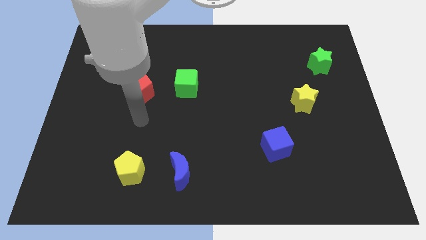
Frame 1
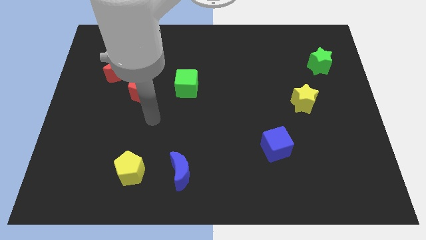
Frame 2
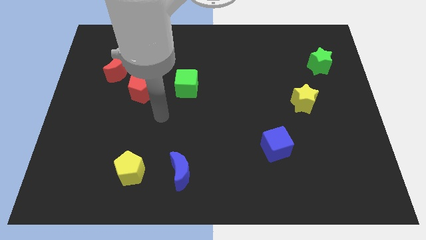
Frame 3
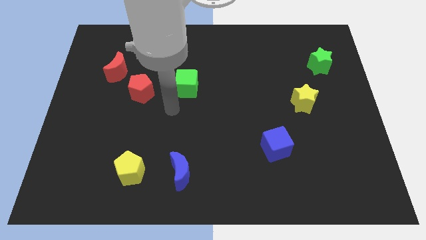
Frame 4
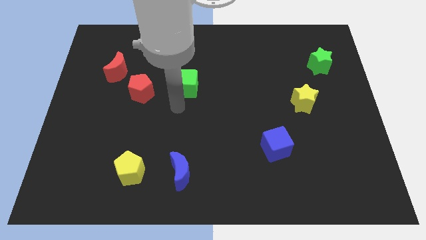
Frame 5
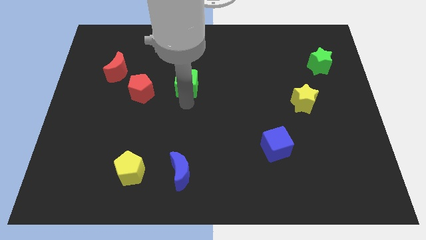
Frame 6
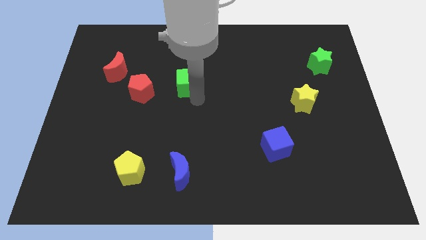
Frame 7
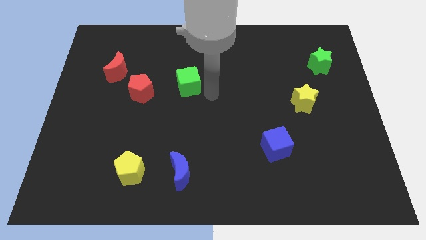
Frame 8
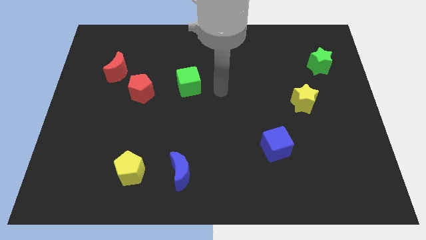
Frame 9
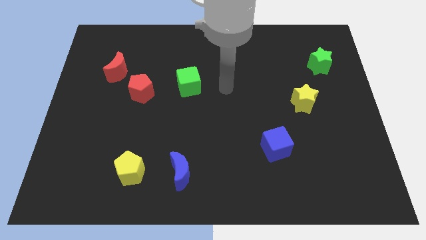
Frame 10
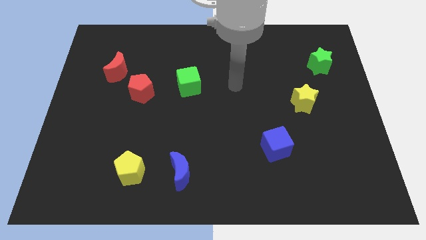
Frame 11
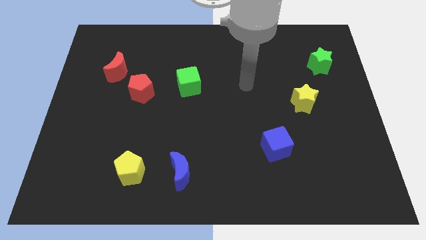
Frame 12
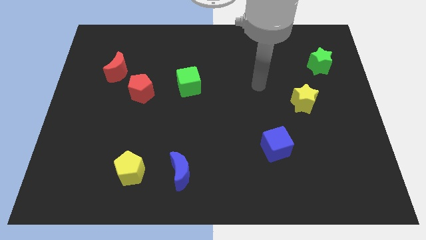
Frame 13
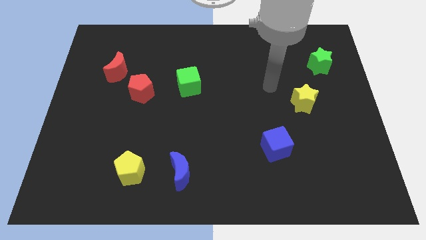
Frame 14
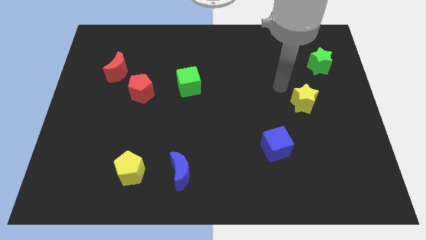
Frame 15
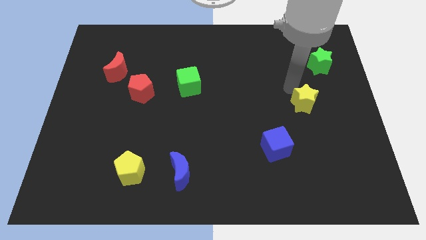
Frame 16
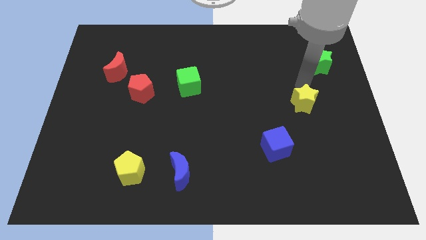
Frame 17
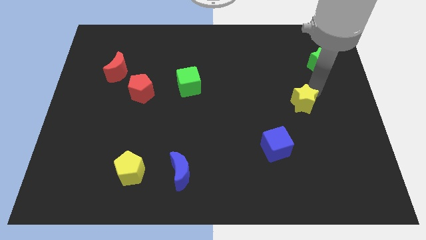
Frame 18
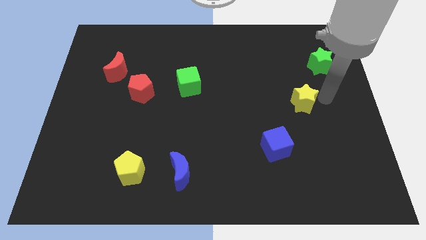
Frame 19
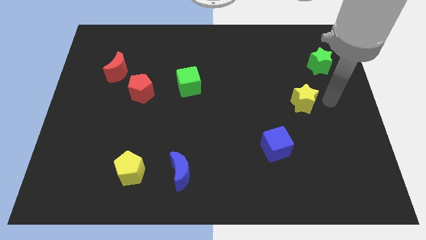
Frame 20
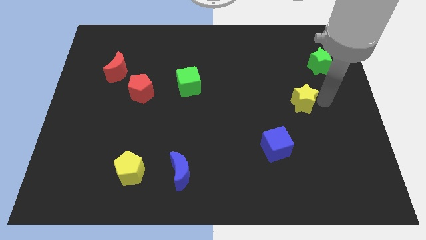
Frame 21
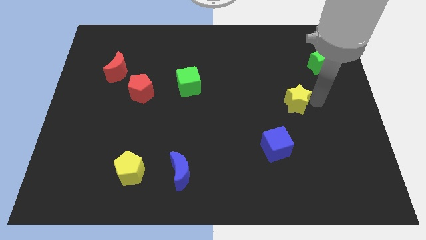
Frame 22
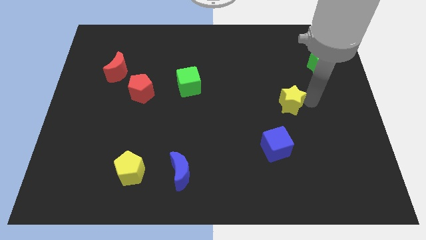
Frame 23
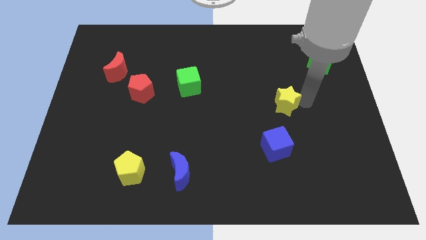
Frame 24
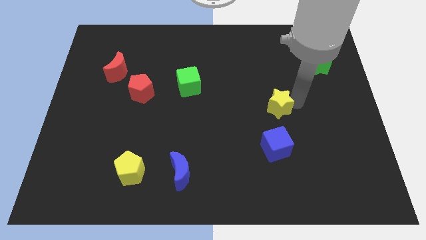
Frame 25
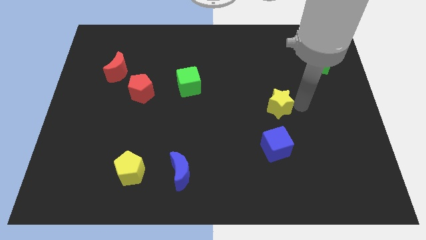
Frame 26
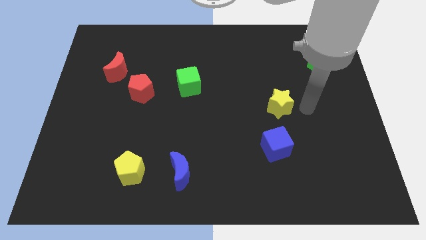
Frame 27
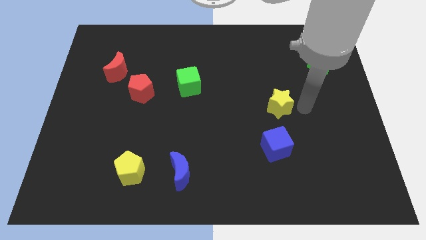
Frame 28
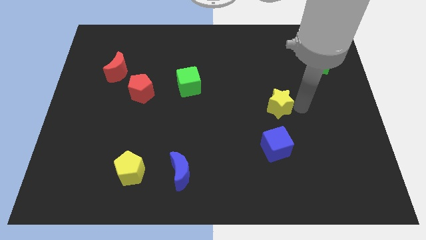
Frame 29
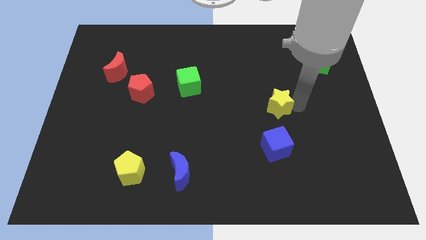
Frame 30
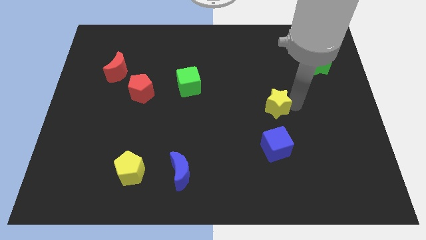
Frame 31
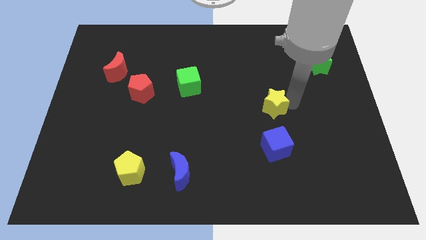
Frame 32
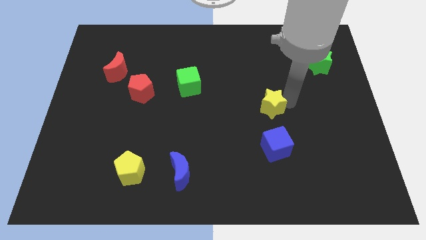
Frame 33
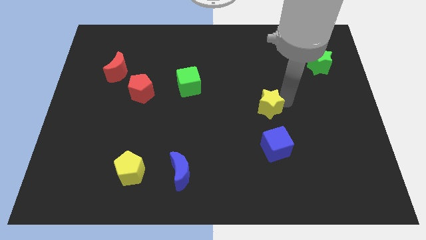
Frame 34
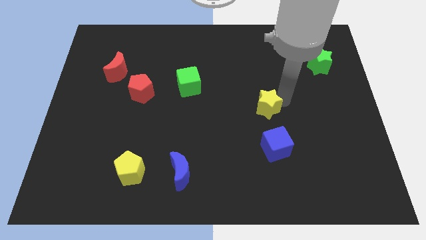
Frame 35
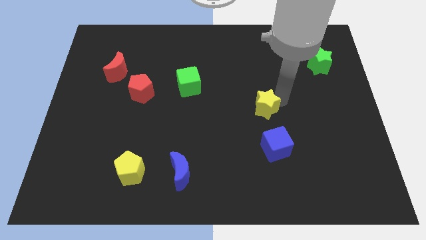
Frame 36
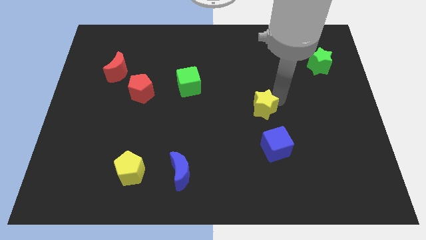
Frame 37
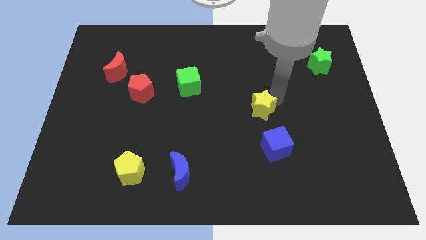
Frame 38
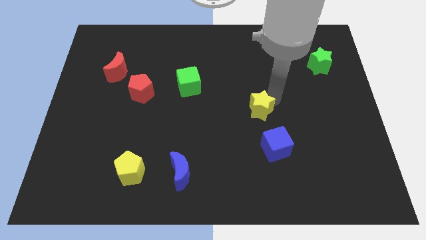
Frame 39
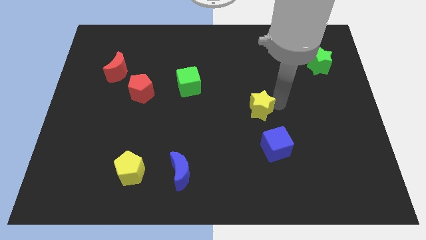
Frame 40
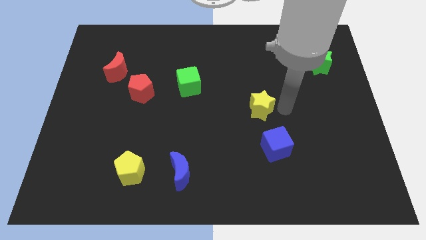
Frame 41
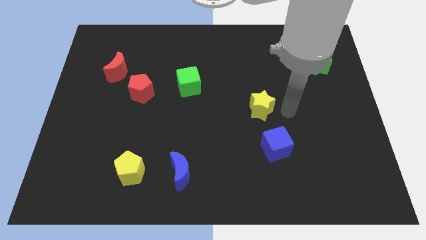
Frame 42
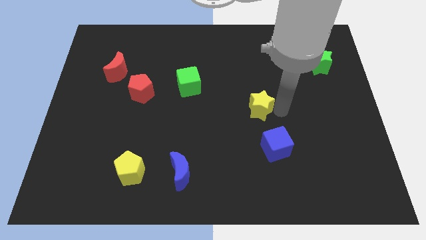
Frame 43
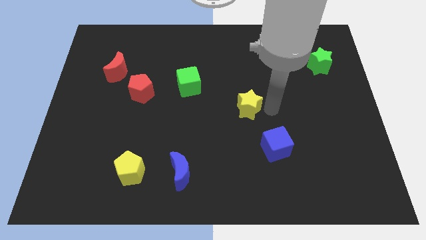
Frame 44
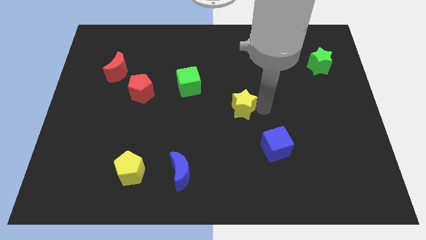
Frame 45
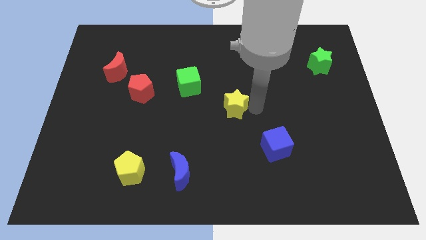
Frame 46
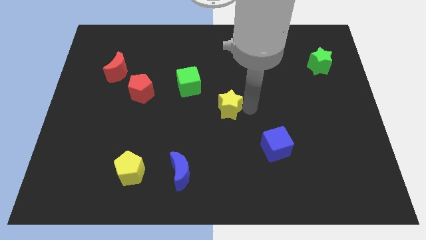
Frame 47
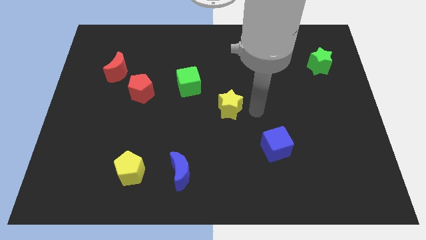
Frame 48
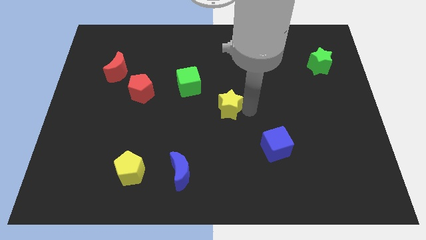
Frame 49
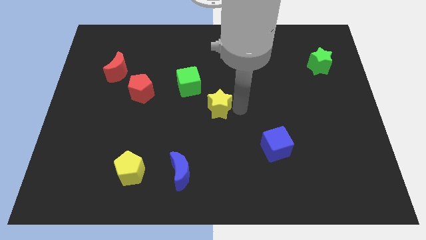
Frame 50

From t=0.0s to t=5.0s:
push the yellow star left

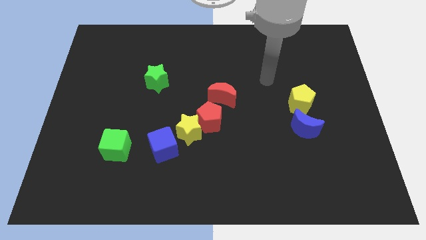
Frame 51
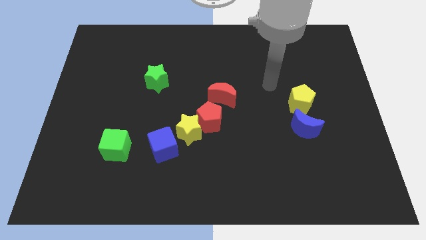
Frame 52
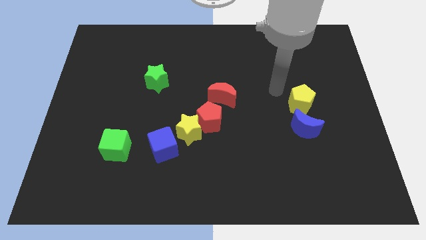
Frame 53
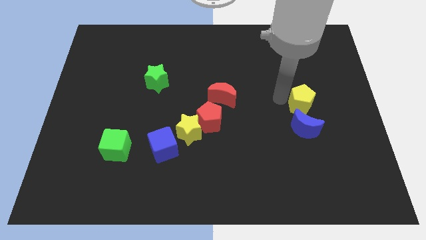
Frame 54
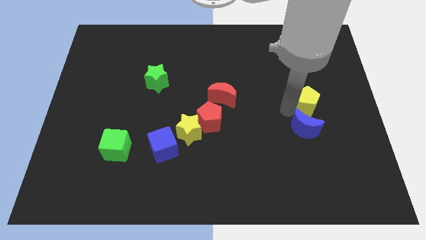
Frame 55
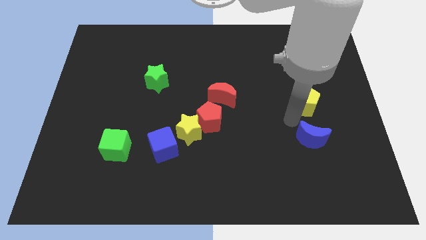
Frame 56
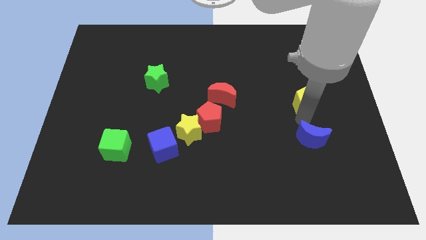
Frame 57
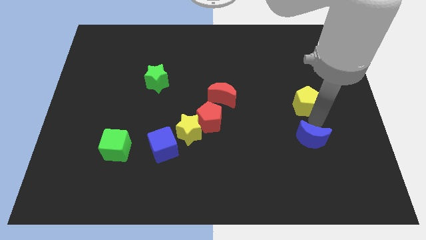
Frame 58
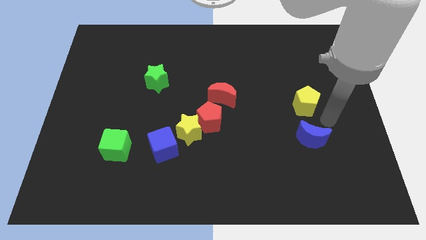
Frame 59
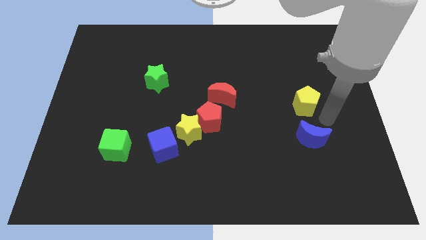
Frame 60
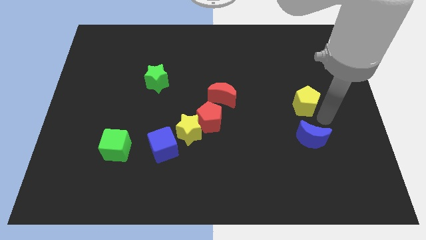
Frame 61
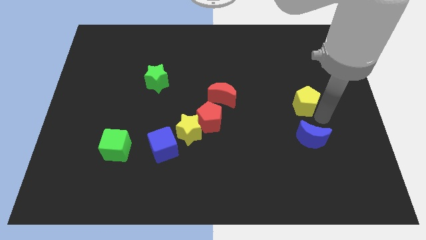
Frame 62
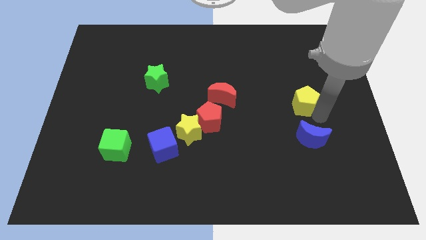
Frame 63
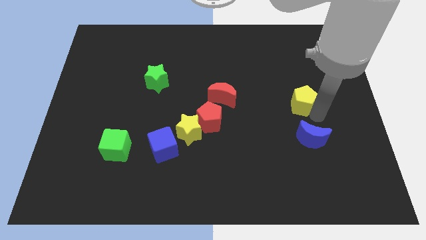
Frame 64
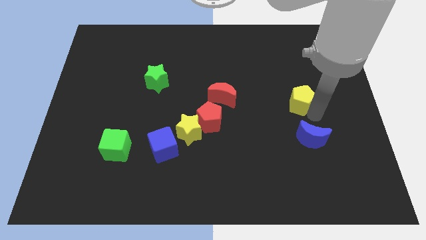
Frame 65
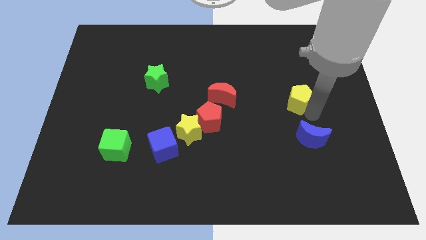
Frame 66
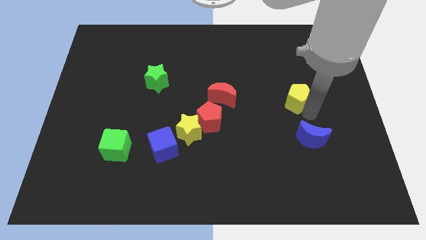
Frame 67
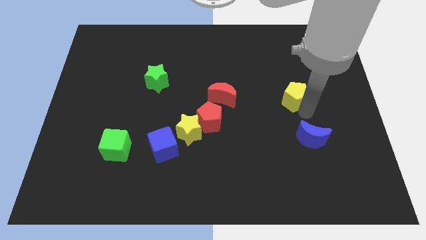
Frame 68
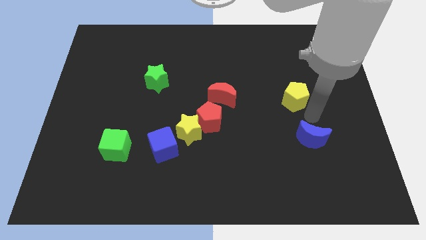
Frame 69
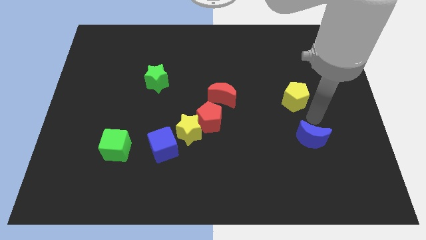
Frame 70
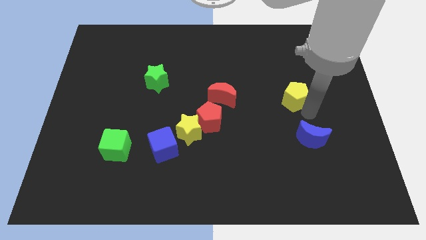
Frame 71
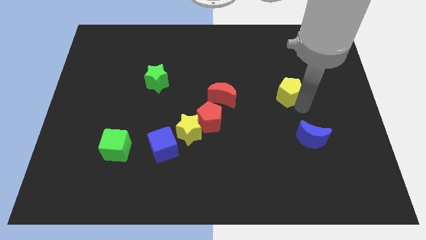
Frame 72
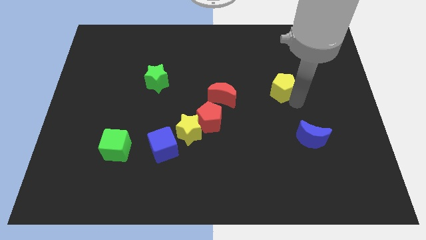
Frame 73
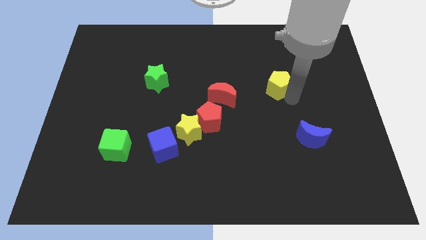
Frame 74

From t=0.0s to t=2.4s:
move the yellow pentagon up and to the left a little bit

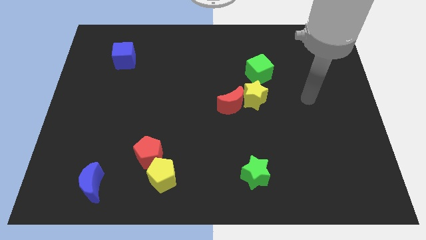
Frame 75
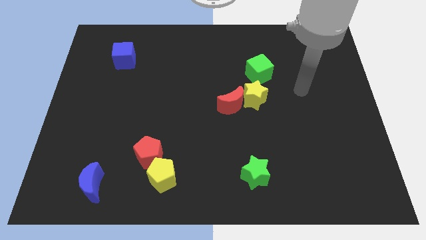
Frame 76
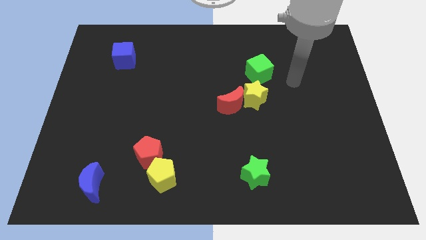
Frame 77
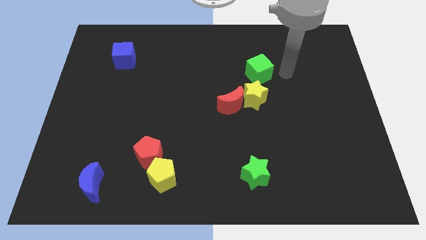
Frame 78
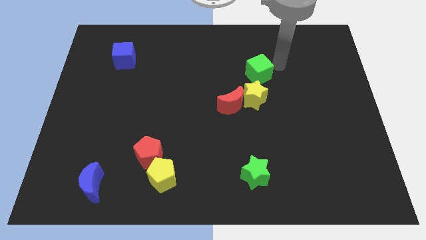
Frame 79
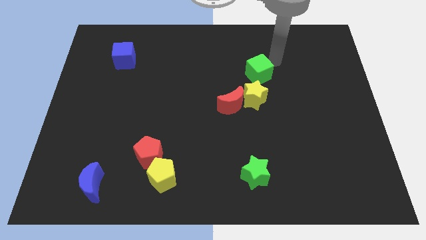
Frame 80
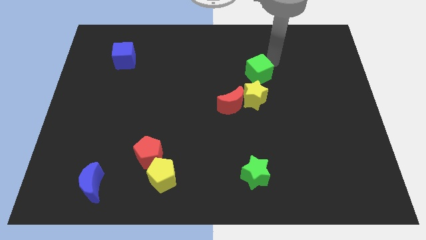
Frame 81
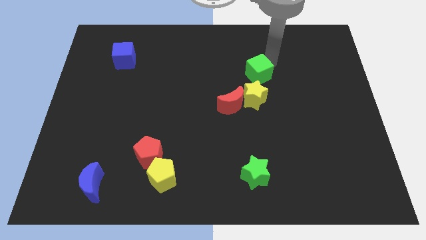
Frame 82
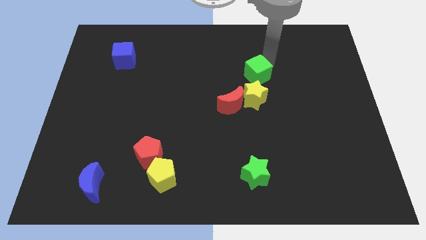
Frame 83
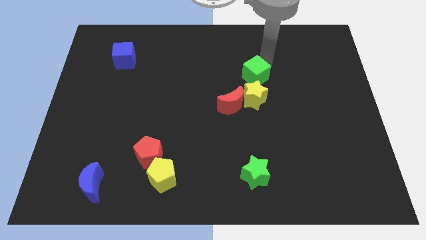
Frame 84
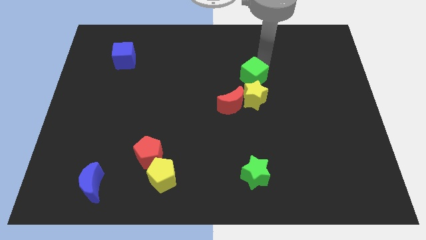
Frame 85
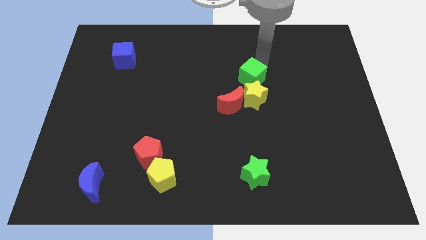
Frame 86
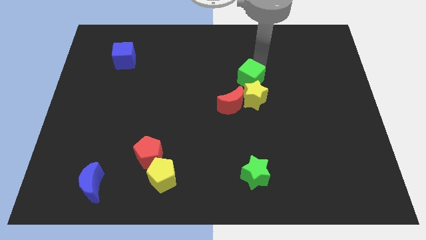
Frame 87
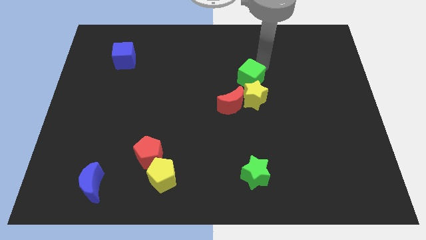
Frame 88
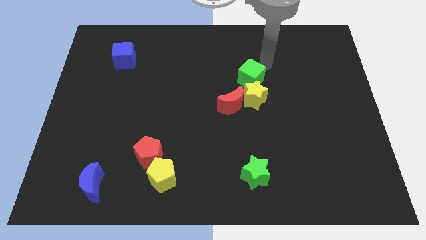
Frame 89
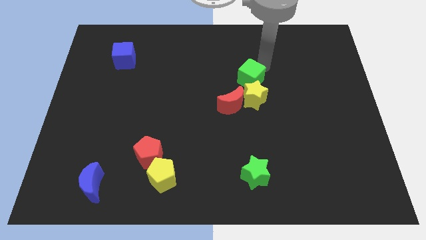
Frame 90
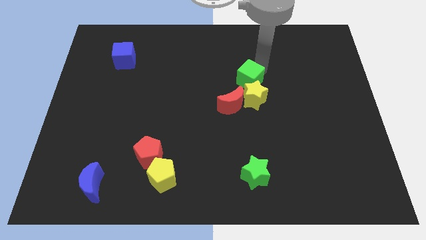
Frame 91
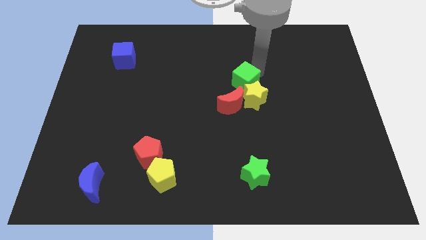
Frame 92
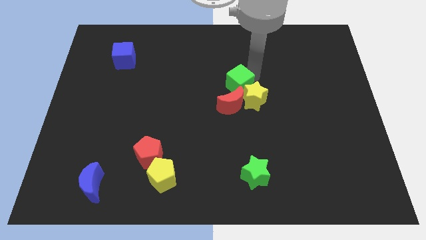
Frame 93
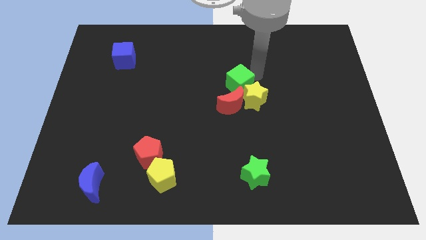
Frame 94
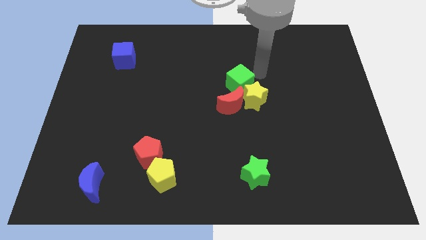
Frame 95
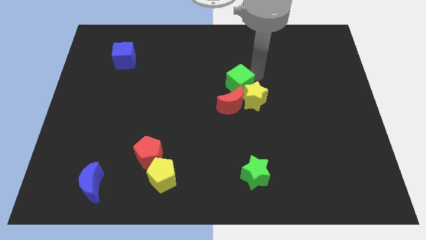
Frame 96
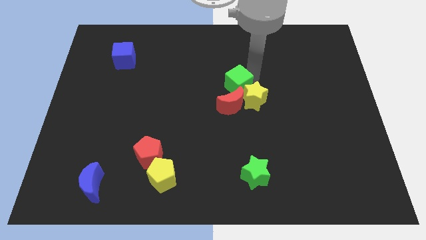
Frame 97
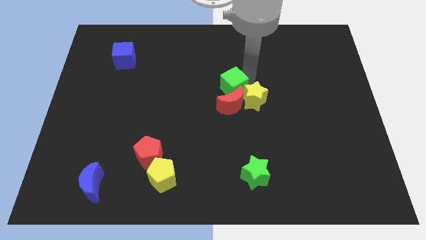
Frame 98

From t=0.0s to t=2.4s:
slightly move the green cube down and then to the left
